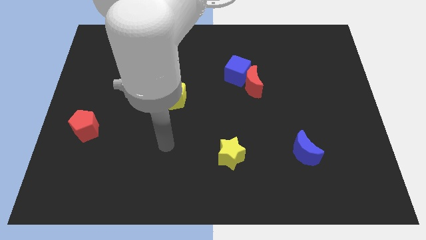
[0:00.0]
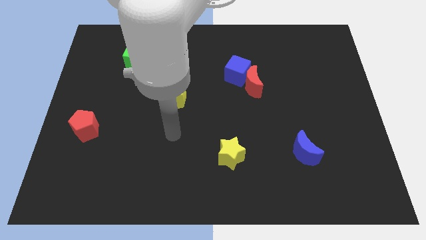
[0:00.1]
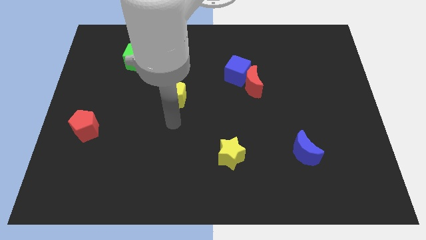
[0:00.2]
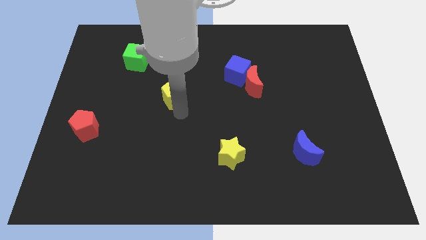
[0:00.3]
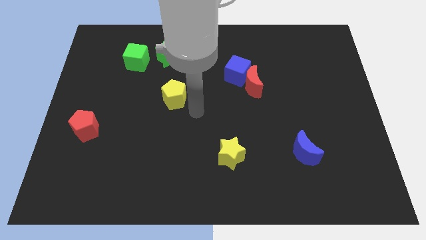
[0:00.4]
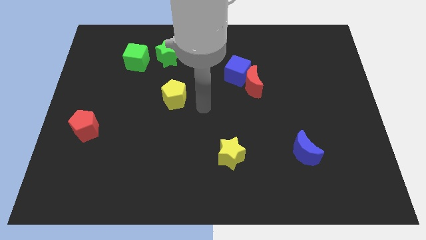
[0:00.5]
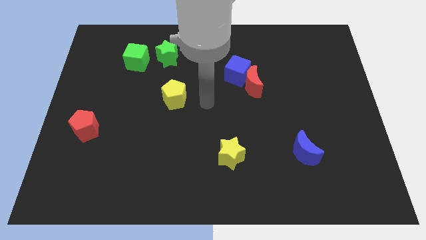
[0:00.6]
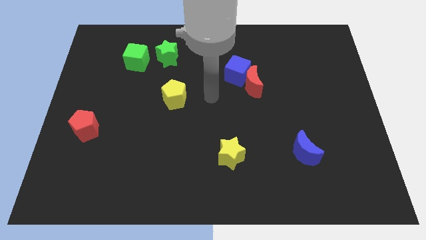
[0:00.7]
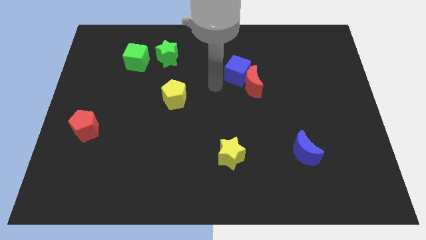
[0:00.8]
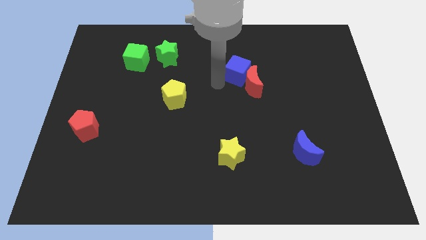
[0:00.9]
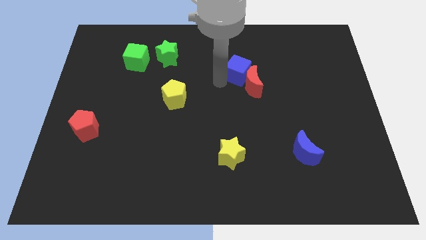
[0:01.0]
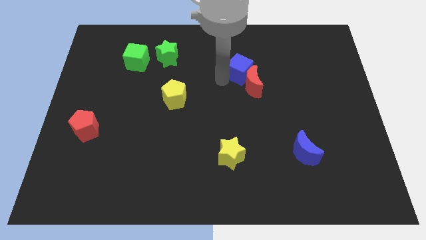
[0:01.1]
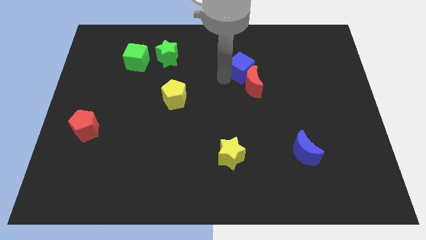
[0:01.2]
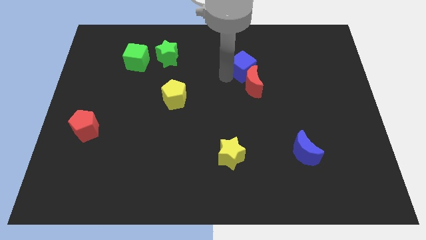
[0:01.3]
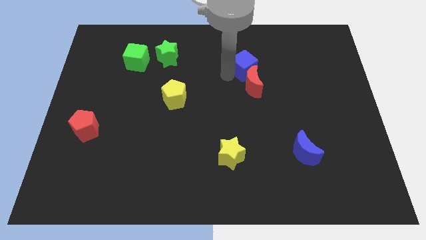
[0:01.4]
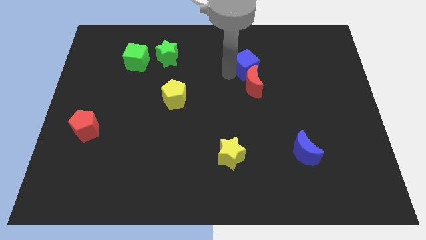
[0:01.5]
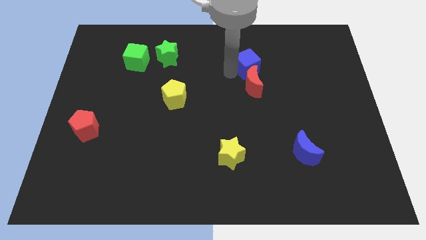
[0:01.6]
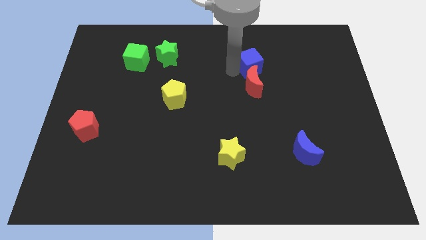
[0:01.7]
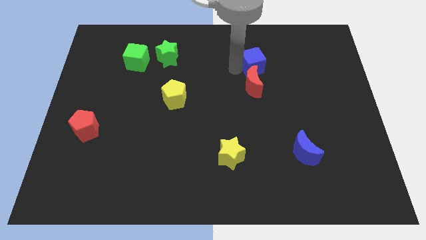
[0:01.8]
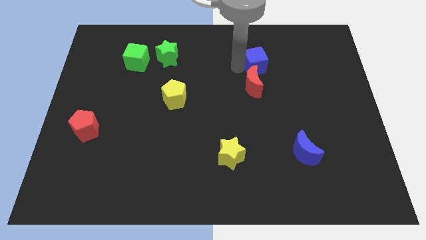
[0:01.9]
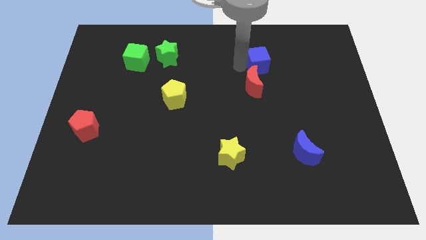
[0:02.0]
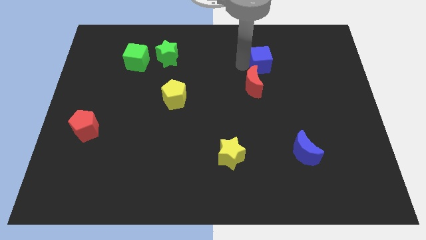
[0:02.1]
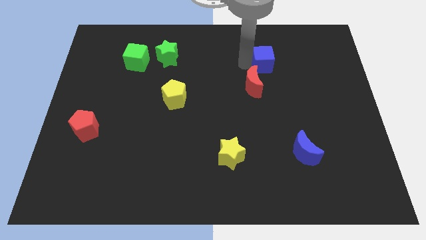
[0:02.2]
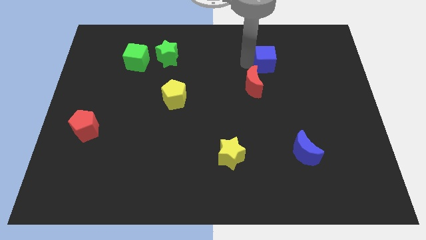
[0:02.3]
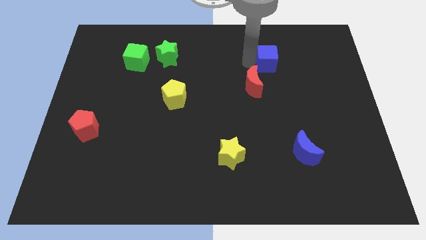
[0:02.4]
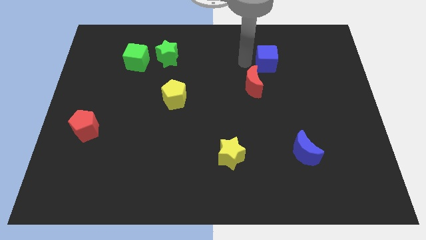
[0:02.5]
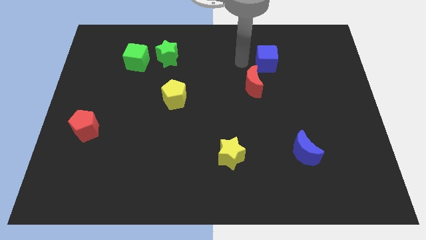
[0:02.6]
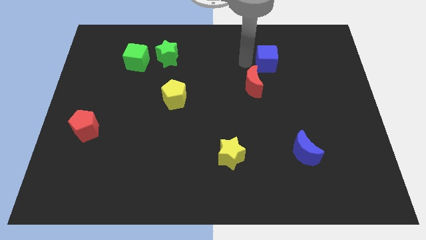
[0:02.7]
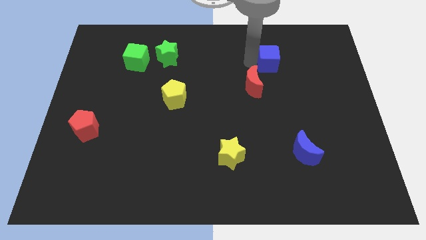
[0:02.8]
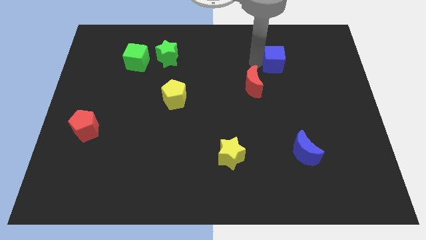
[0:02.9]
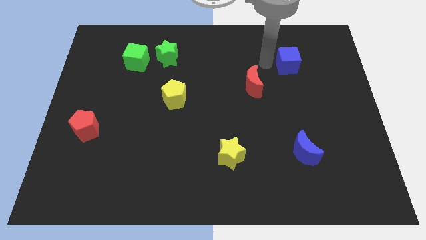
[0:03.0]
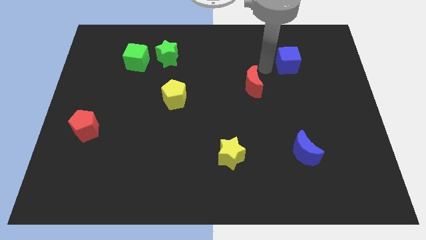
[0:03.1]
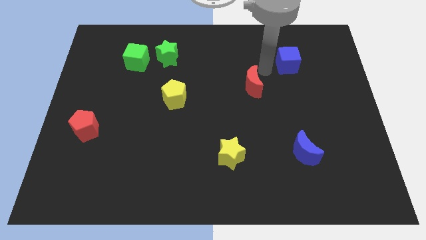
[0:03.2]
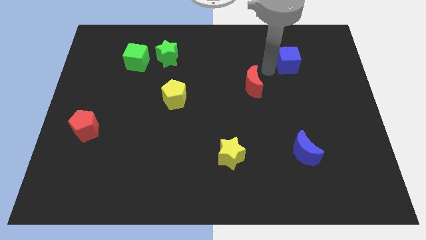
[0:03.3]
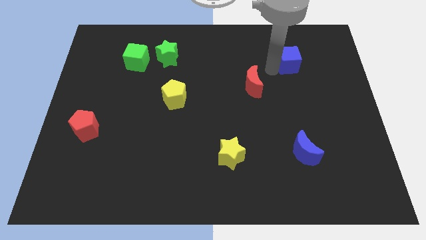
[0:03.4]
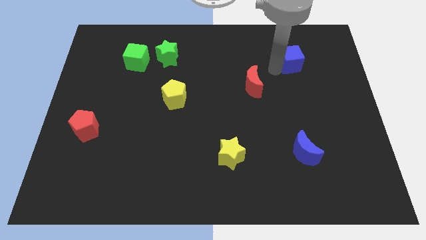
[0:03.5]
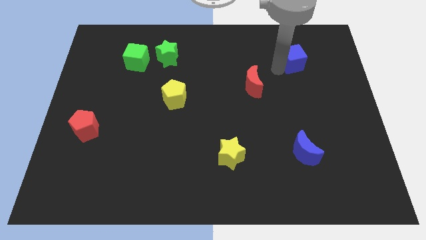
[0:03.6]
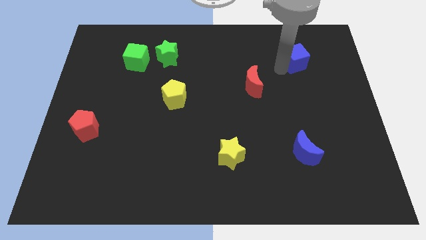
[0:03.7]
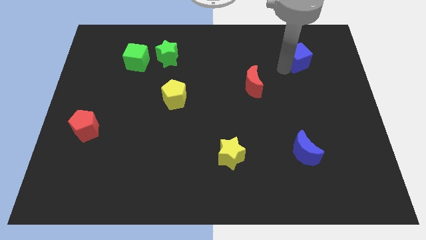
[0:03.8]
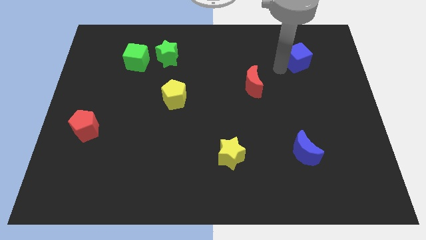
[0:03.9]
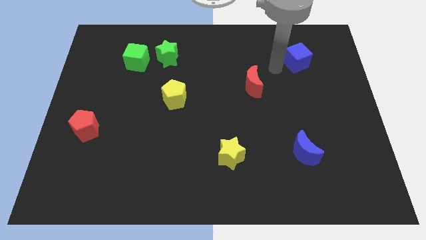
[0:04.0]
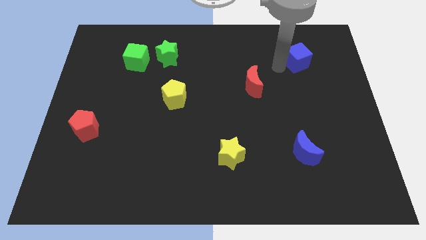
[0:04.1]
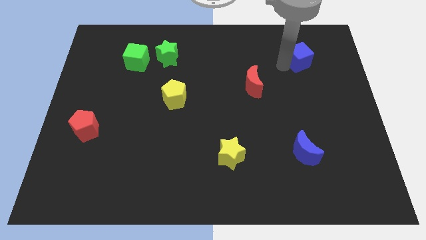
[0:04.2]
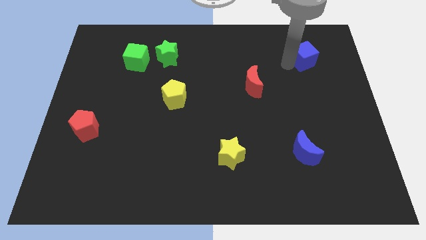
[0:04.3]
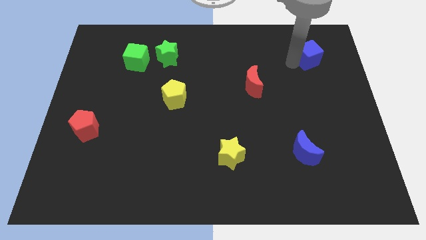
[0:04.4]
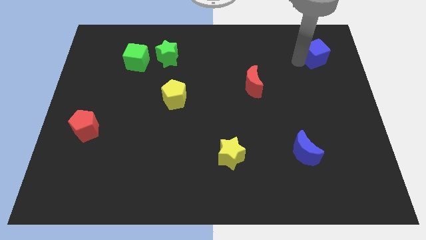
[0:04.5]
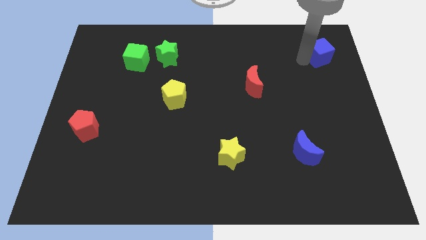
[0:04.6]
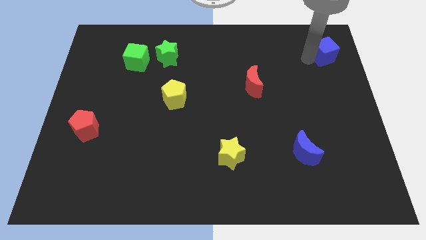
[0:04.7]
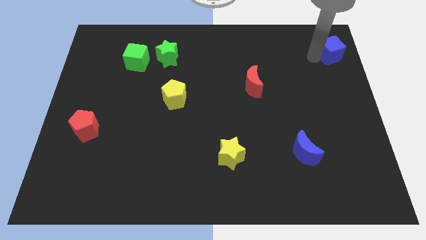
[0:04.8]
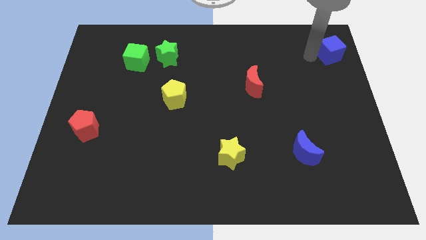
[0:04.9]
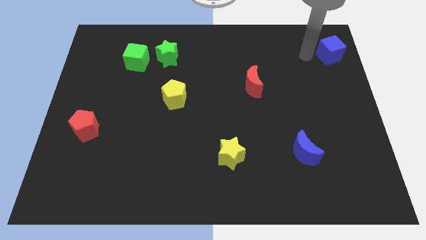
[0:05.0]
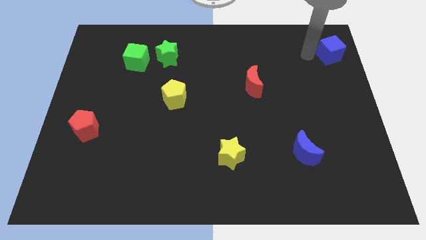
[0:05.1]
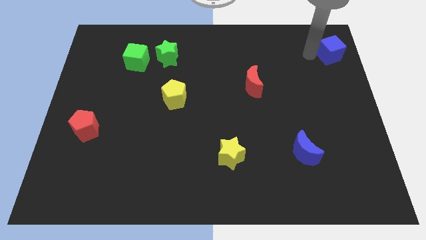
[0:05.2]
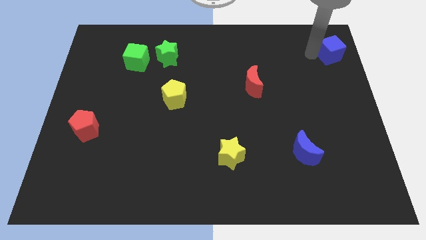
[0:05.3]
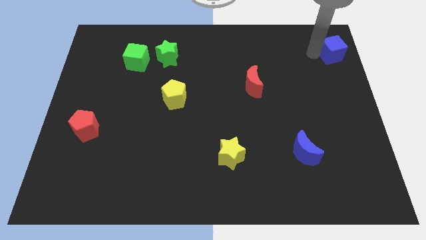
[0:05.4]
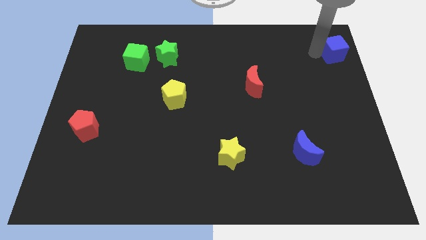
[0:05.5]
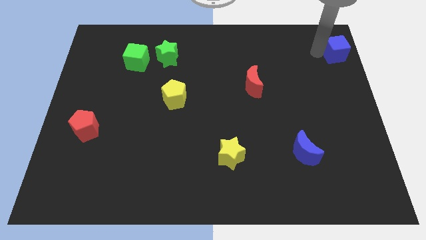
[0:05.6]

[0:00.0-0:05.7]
move the blue cube to the upper right corner

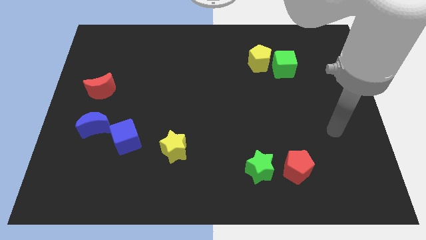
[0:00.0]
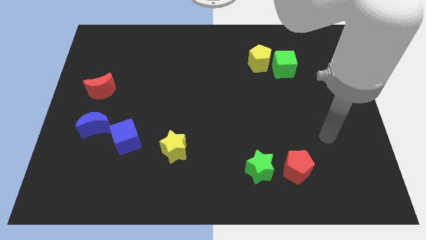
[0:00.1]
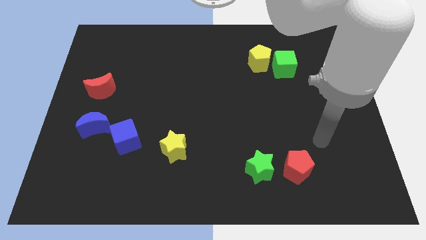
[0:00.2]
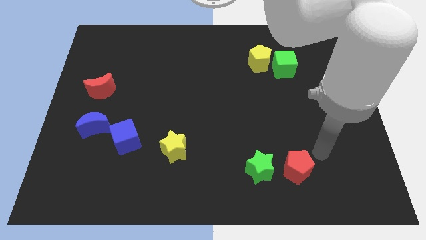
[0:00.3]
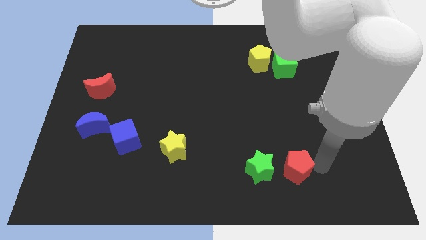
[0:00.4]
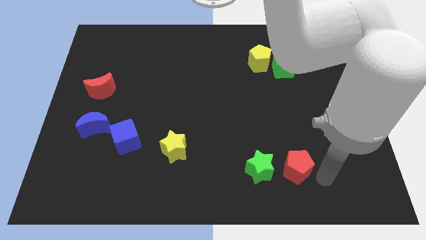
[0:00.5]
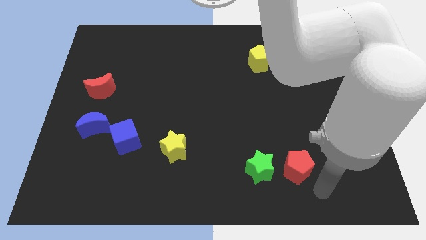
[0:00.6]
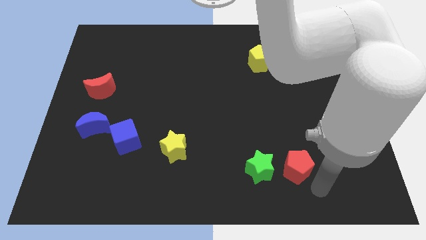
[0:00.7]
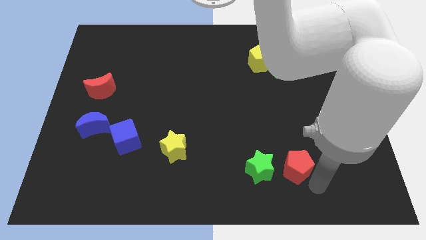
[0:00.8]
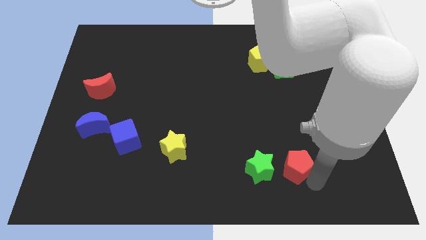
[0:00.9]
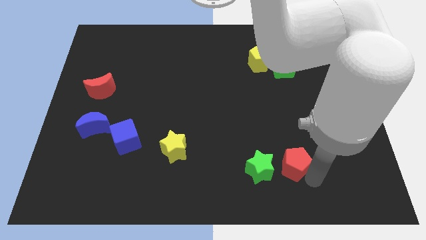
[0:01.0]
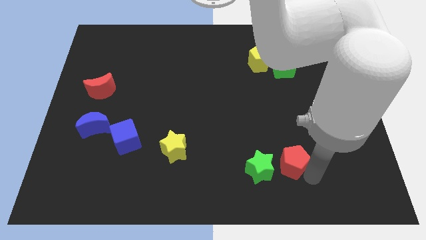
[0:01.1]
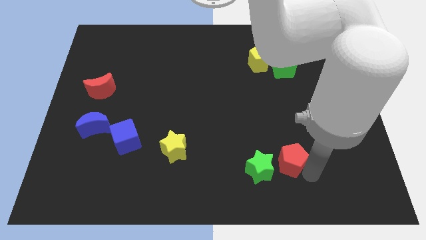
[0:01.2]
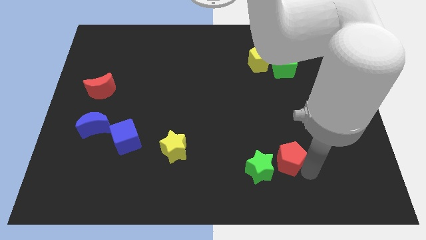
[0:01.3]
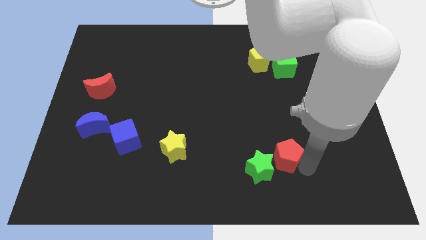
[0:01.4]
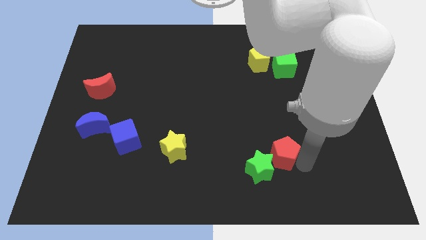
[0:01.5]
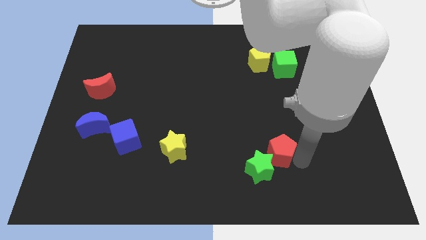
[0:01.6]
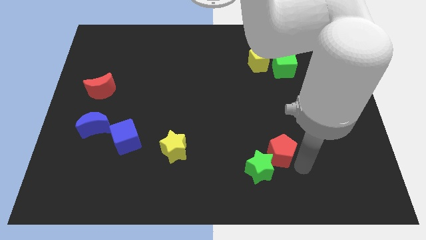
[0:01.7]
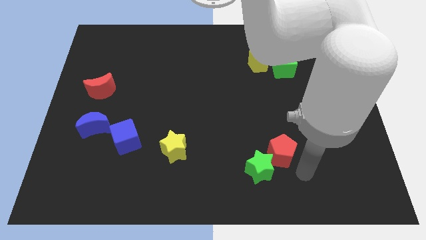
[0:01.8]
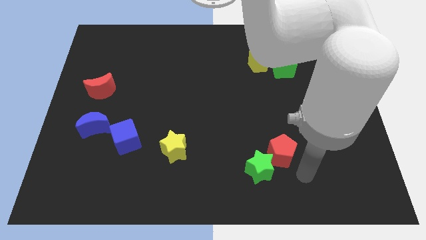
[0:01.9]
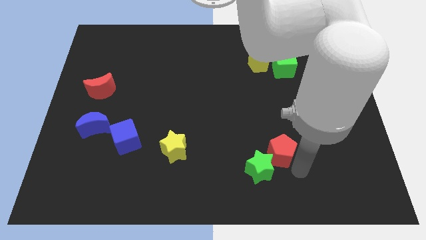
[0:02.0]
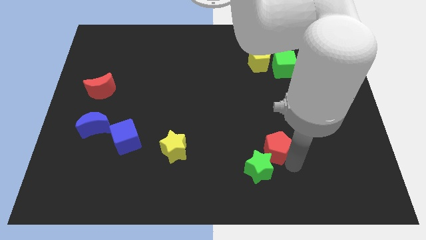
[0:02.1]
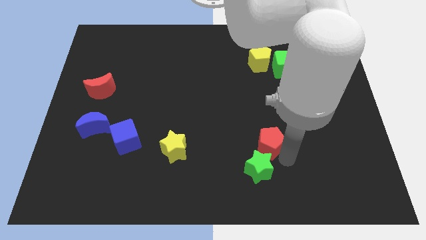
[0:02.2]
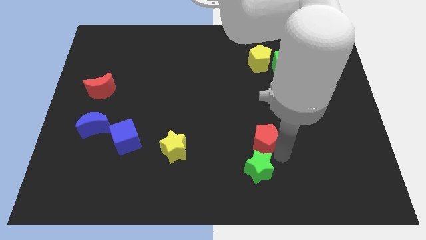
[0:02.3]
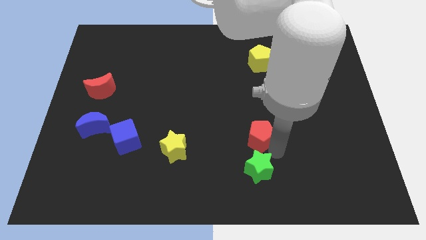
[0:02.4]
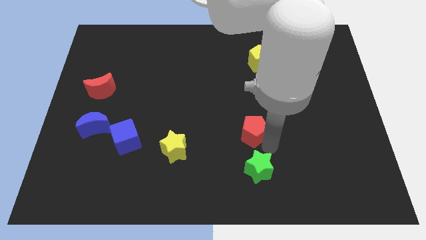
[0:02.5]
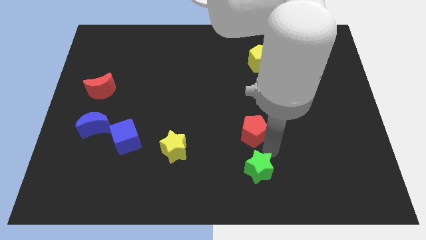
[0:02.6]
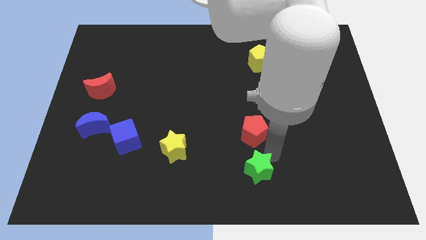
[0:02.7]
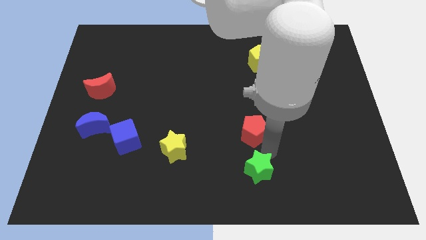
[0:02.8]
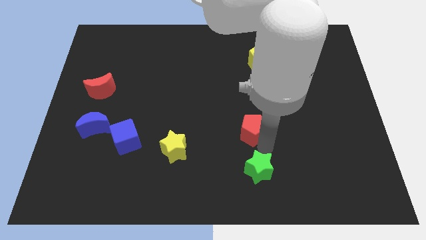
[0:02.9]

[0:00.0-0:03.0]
move the red pentagon to the middle of the board
